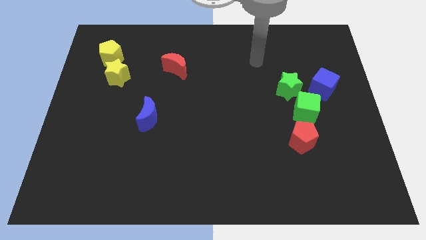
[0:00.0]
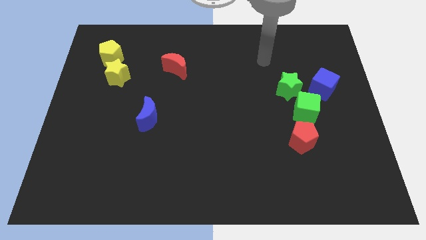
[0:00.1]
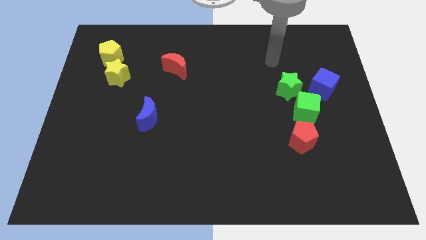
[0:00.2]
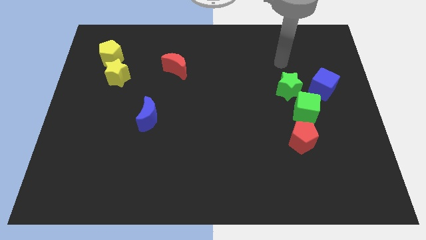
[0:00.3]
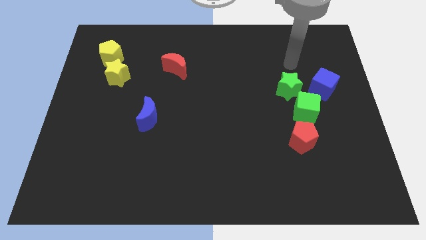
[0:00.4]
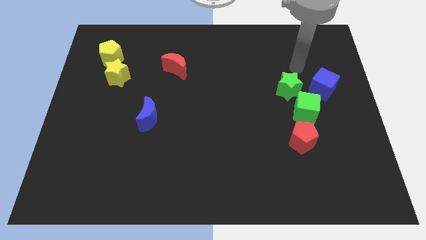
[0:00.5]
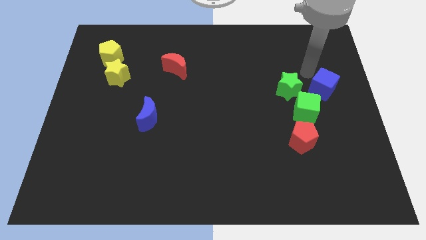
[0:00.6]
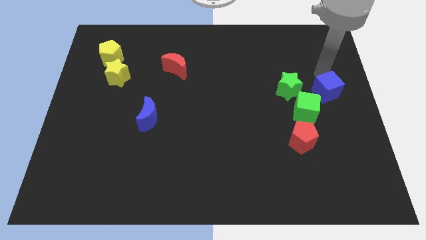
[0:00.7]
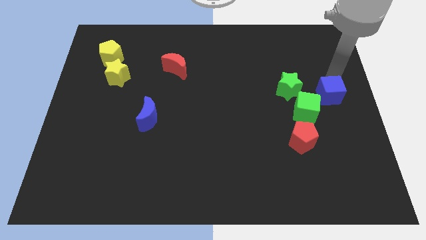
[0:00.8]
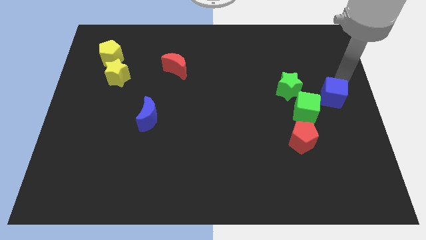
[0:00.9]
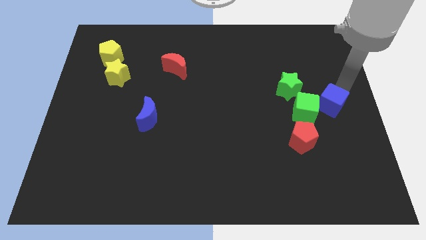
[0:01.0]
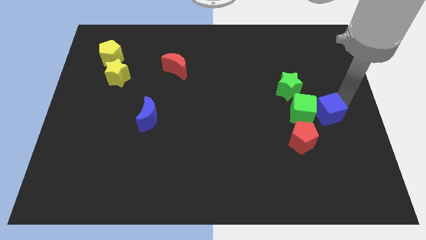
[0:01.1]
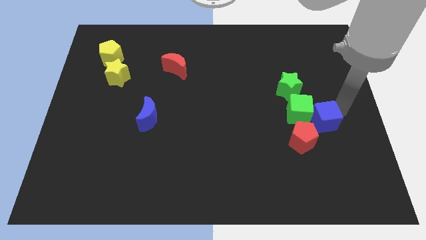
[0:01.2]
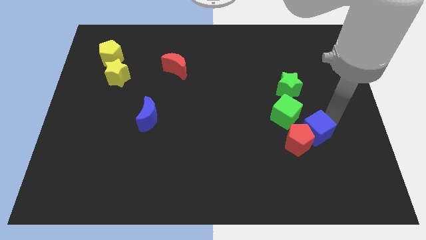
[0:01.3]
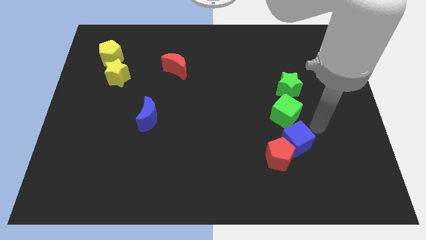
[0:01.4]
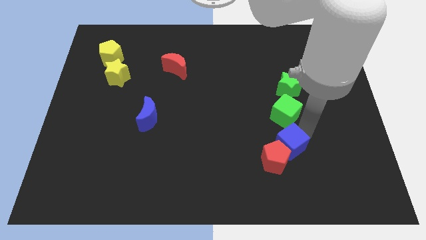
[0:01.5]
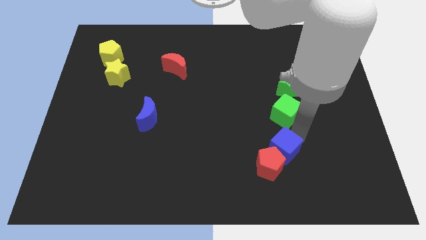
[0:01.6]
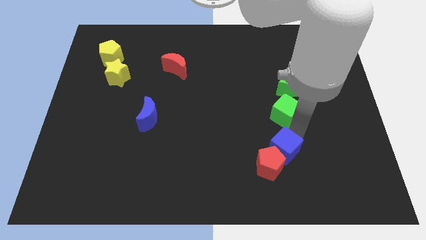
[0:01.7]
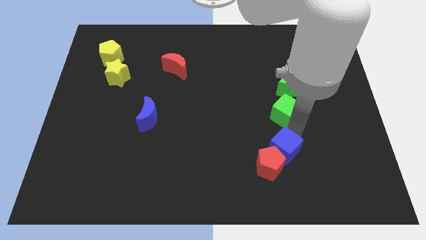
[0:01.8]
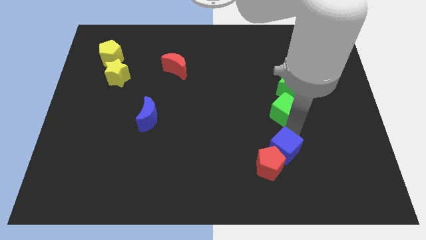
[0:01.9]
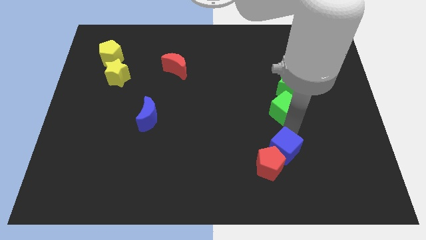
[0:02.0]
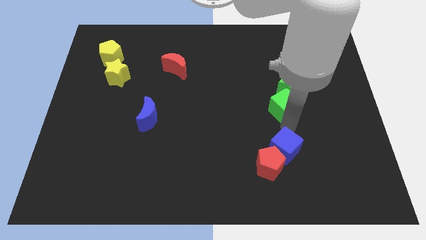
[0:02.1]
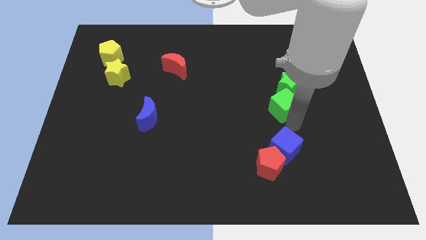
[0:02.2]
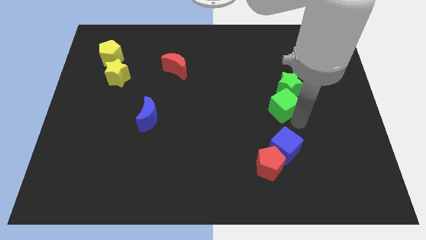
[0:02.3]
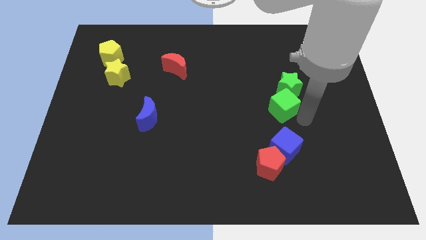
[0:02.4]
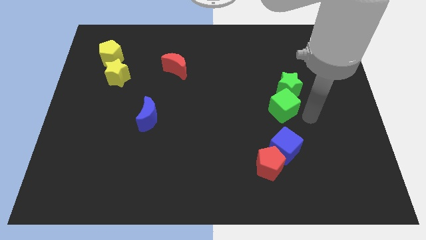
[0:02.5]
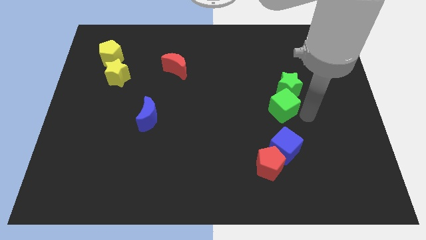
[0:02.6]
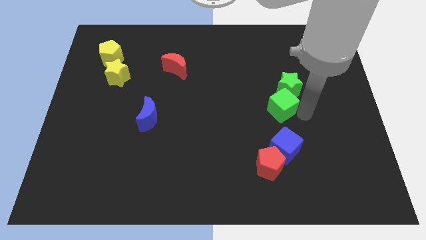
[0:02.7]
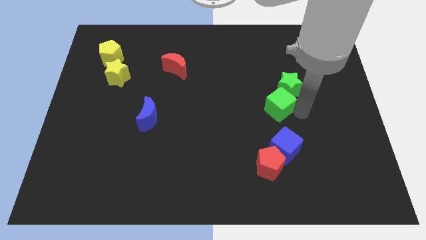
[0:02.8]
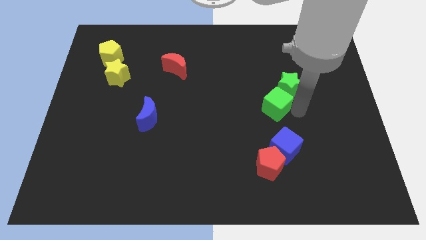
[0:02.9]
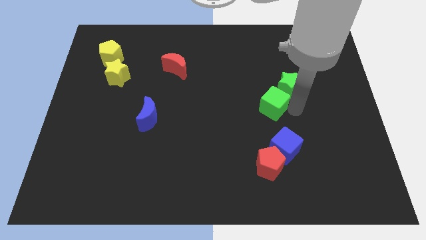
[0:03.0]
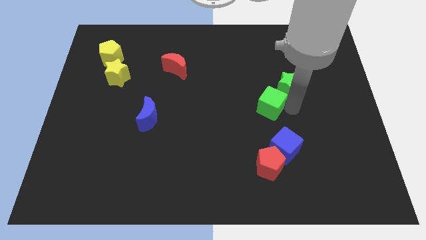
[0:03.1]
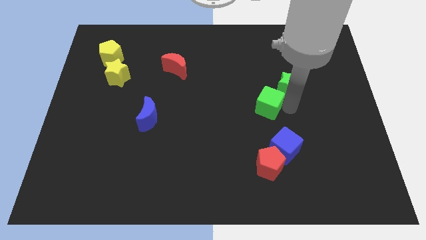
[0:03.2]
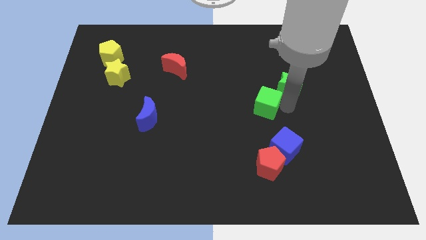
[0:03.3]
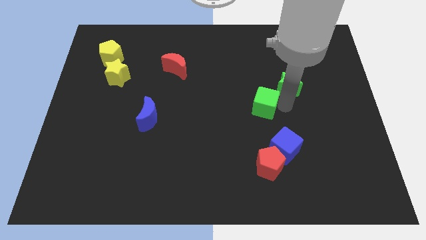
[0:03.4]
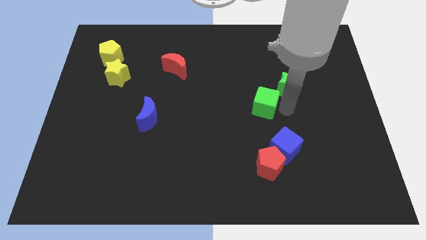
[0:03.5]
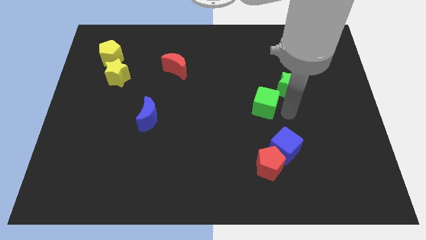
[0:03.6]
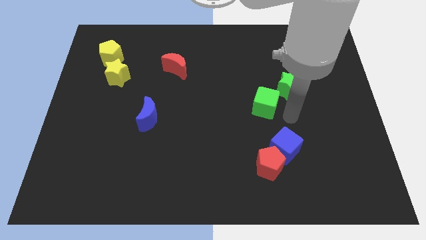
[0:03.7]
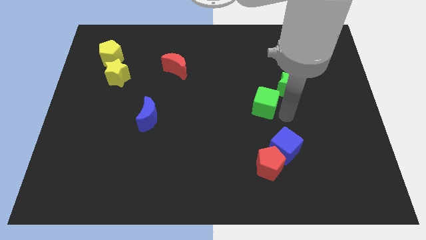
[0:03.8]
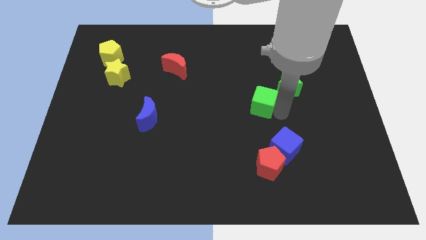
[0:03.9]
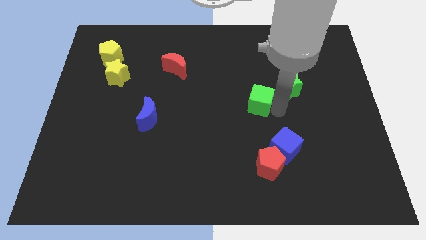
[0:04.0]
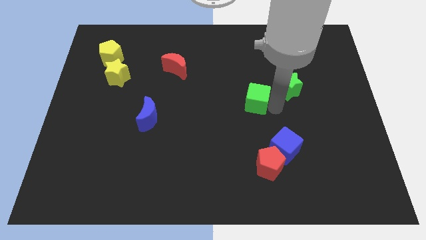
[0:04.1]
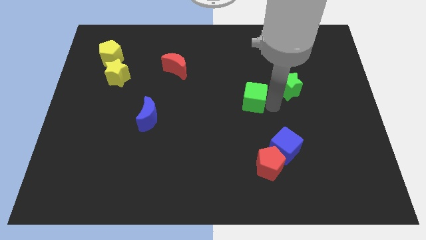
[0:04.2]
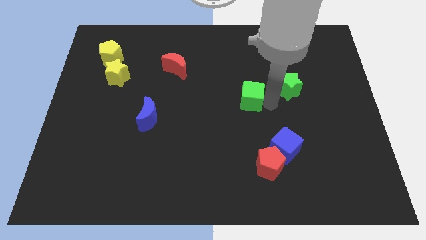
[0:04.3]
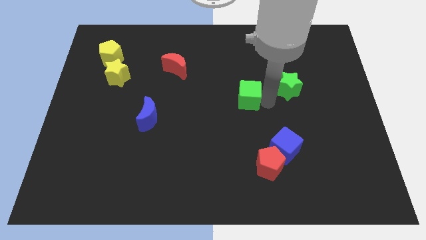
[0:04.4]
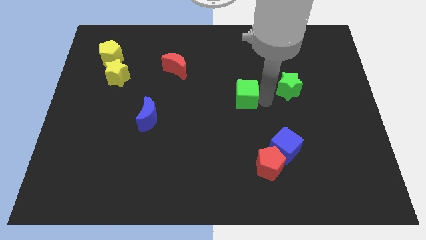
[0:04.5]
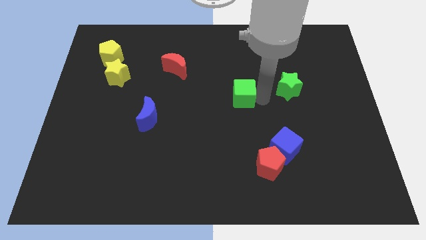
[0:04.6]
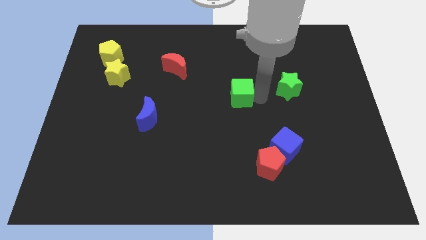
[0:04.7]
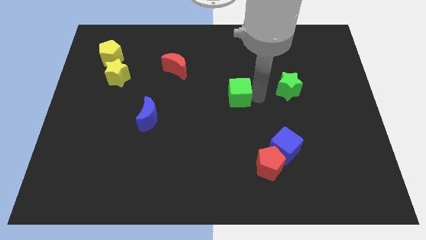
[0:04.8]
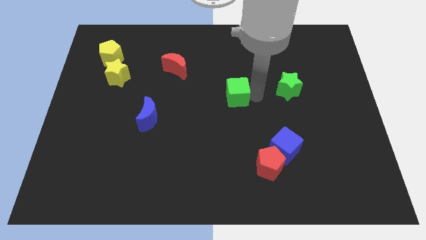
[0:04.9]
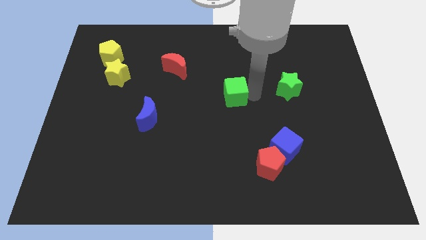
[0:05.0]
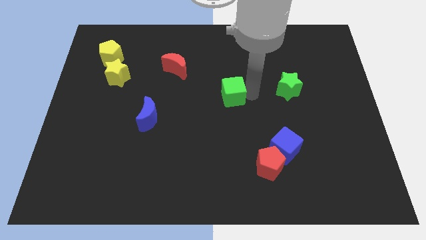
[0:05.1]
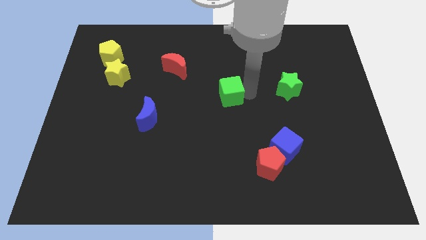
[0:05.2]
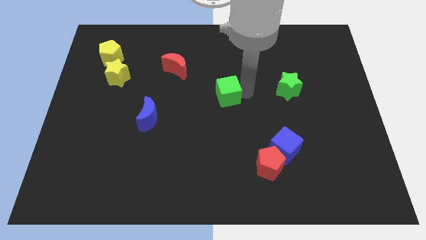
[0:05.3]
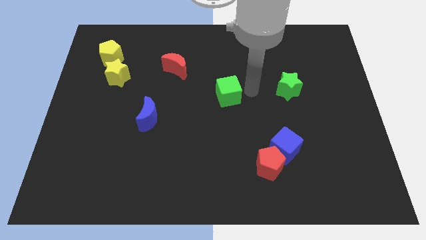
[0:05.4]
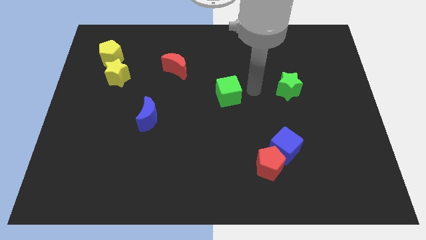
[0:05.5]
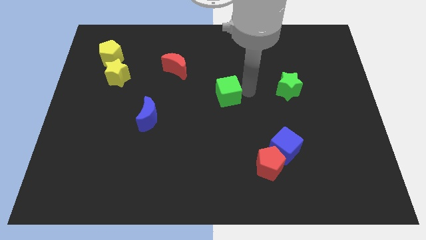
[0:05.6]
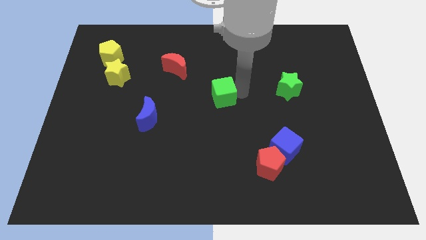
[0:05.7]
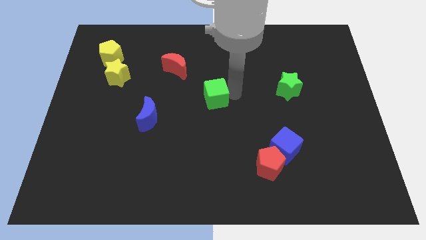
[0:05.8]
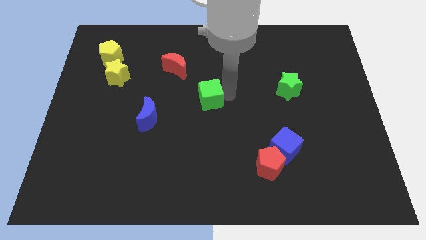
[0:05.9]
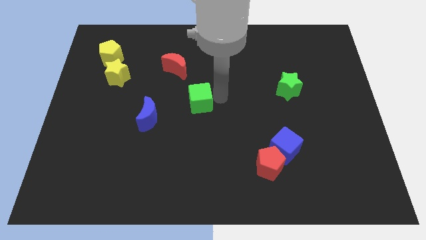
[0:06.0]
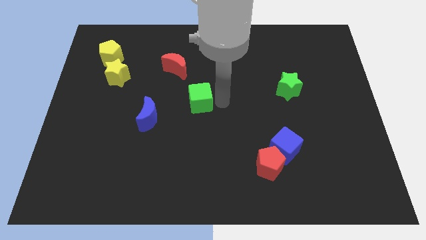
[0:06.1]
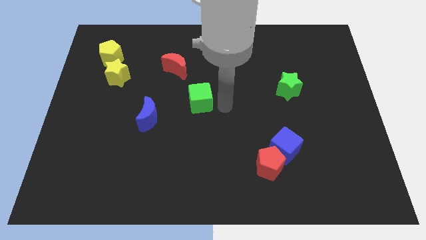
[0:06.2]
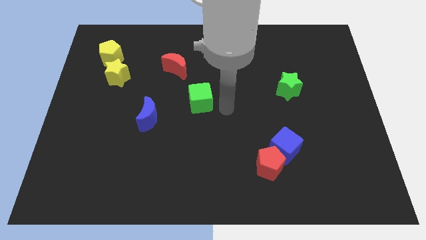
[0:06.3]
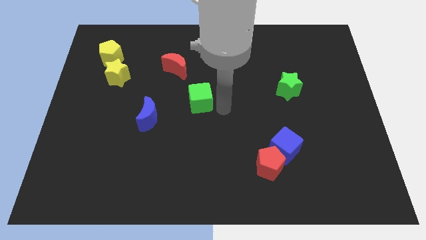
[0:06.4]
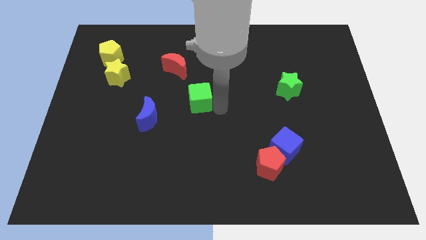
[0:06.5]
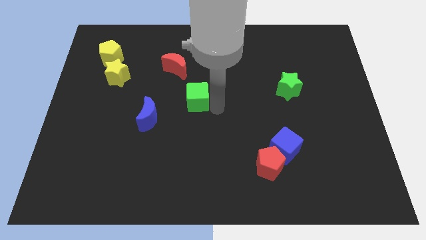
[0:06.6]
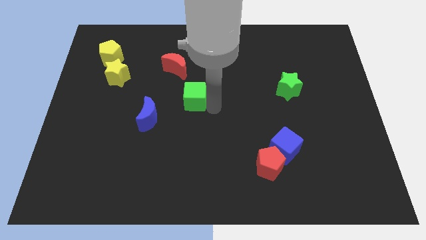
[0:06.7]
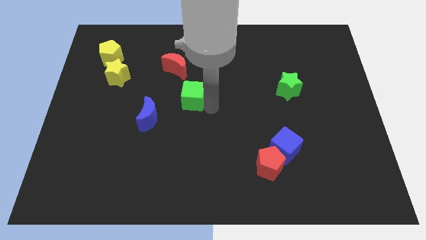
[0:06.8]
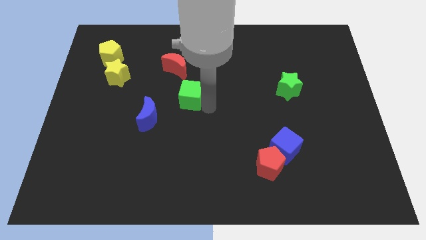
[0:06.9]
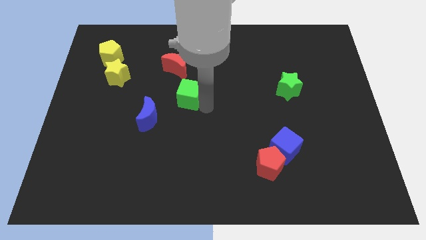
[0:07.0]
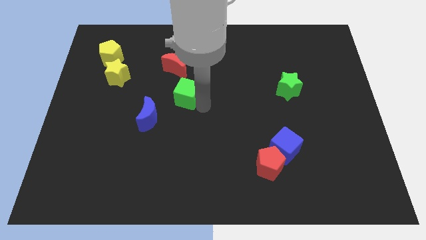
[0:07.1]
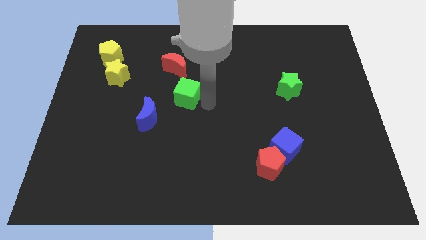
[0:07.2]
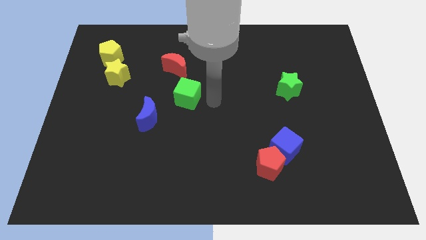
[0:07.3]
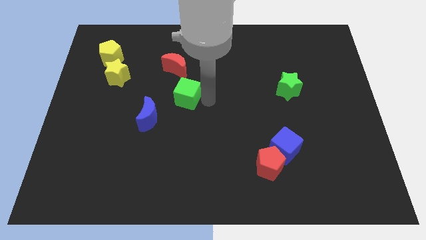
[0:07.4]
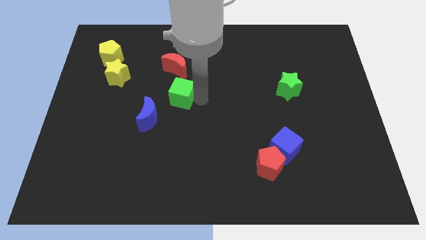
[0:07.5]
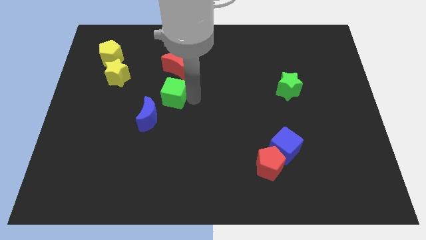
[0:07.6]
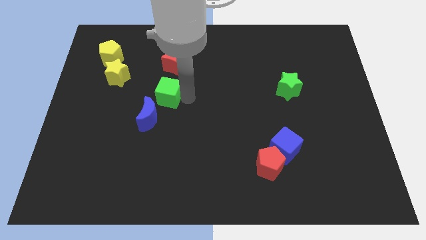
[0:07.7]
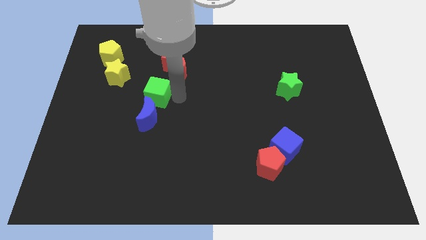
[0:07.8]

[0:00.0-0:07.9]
slide the green cube diagonally down and to the right of the yellow star
